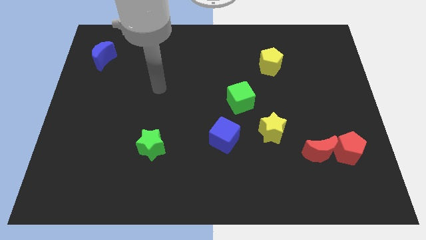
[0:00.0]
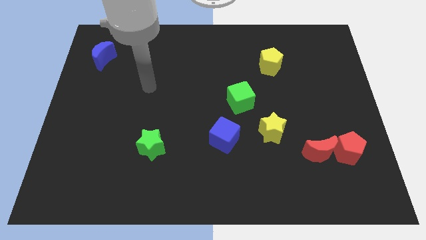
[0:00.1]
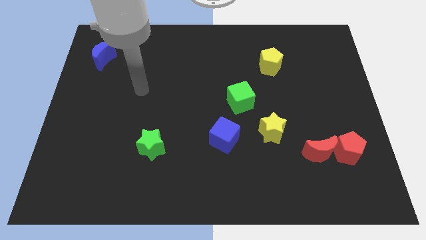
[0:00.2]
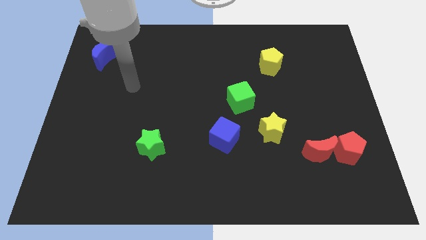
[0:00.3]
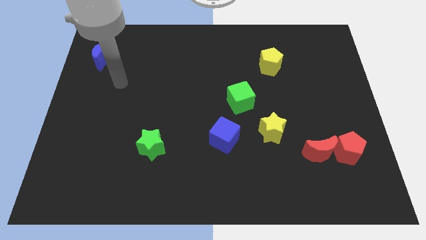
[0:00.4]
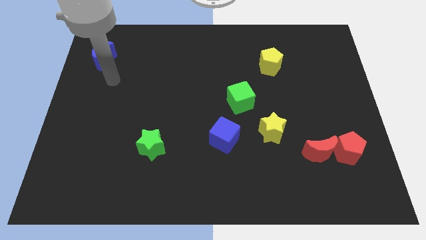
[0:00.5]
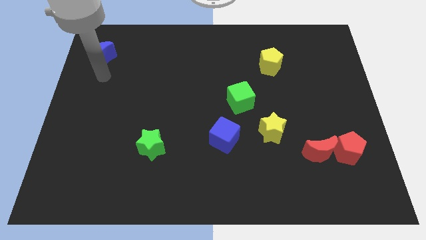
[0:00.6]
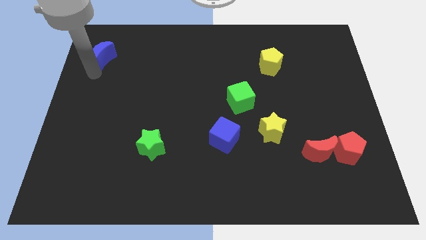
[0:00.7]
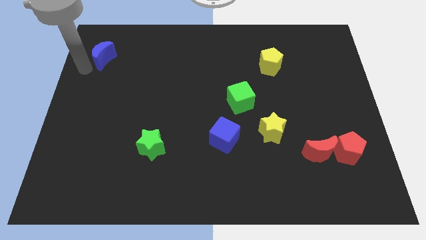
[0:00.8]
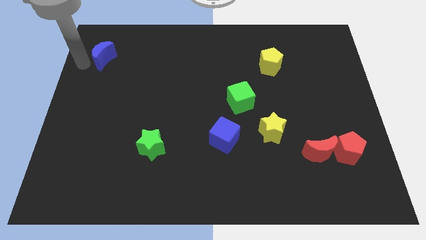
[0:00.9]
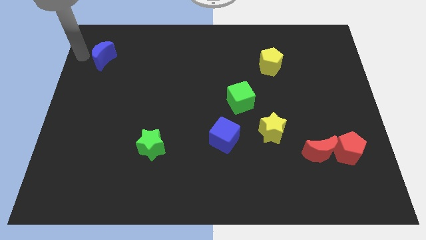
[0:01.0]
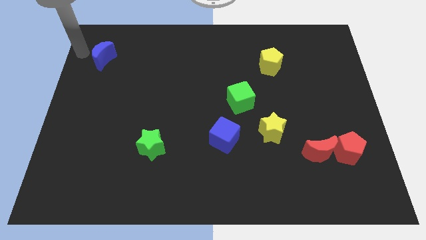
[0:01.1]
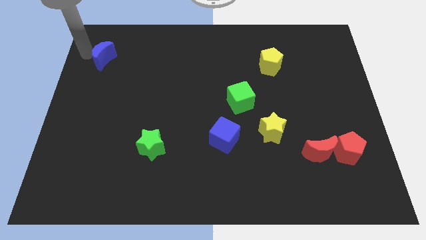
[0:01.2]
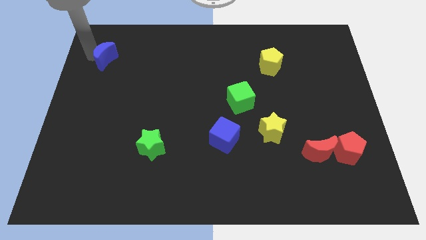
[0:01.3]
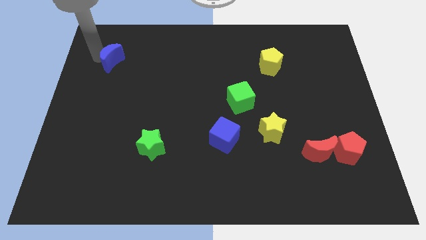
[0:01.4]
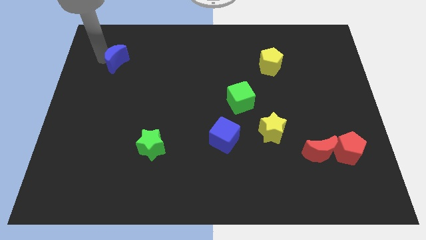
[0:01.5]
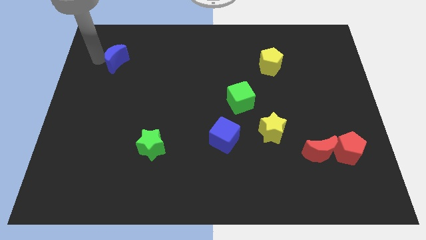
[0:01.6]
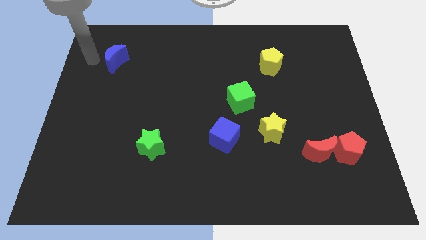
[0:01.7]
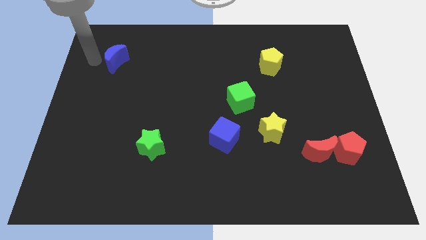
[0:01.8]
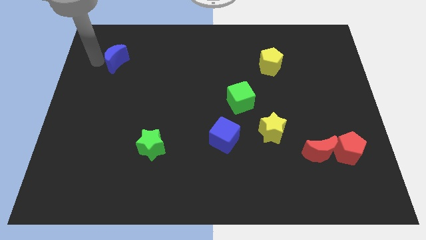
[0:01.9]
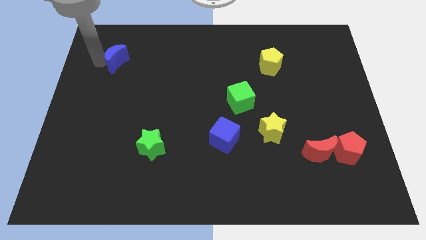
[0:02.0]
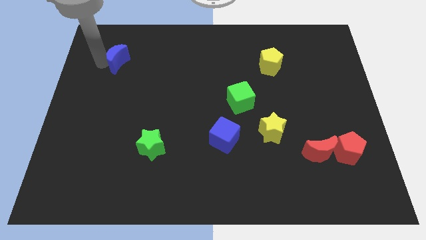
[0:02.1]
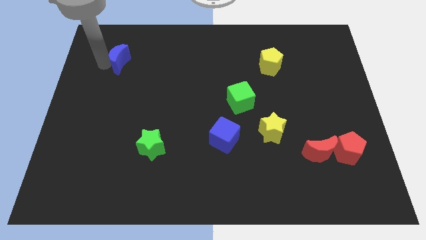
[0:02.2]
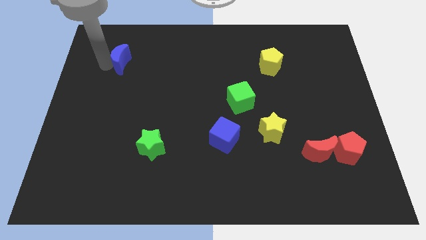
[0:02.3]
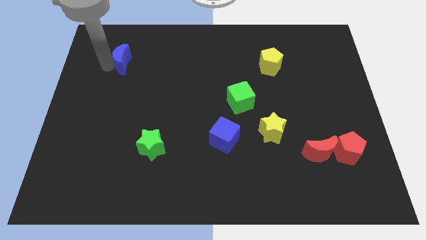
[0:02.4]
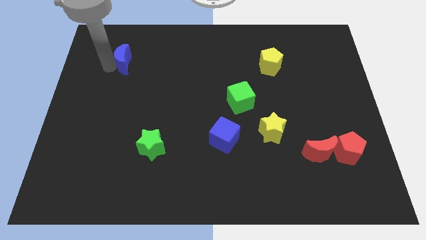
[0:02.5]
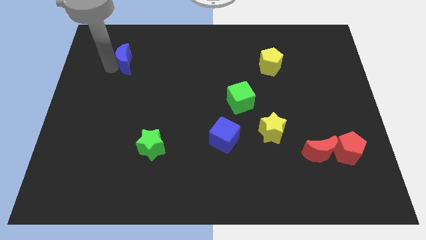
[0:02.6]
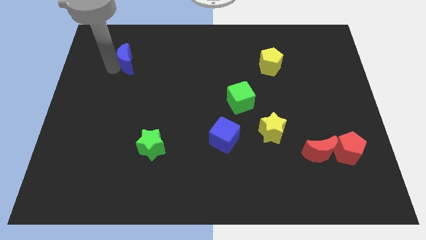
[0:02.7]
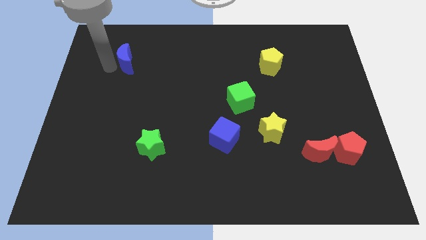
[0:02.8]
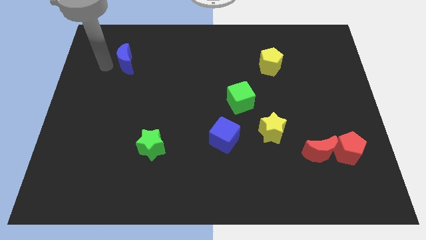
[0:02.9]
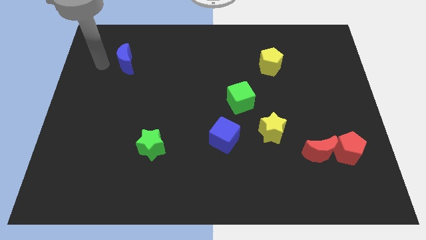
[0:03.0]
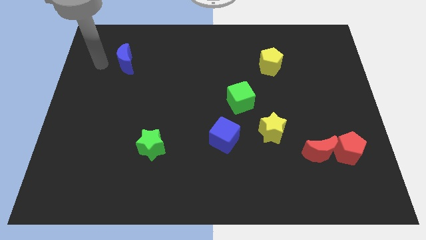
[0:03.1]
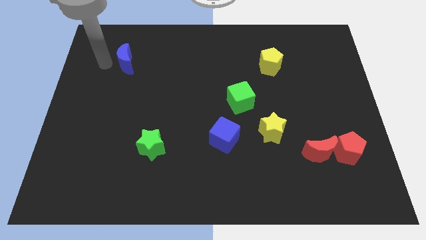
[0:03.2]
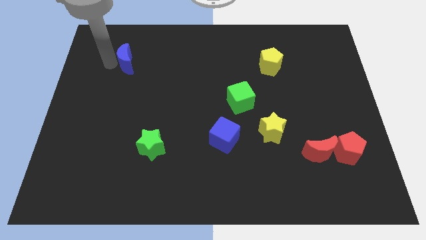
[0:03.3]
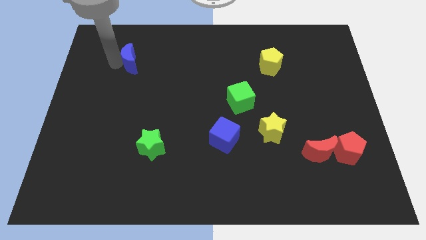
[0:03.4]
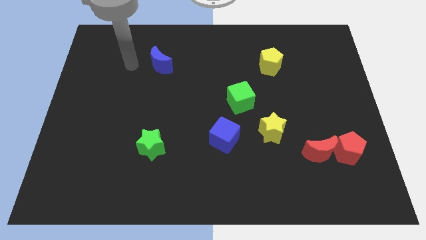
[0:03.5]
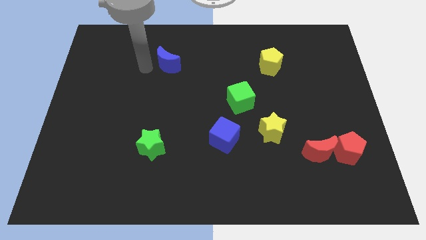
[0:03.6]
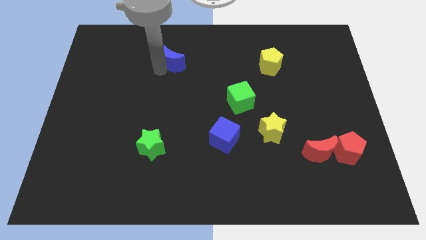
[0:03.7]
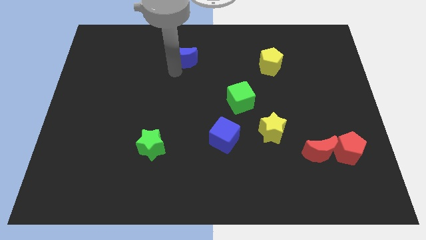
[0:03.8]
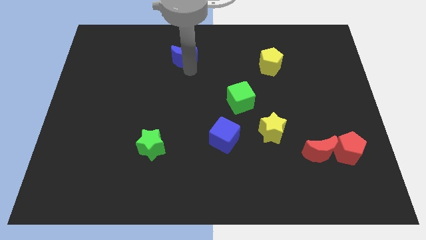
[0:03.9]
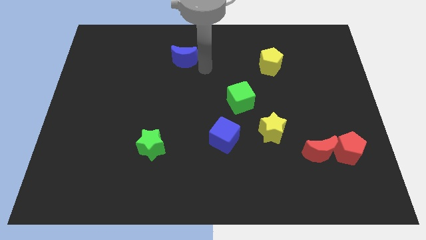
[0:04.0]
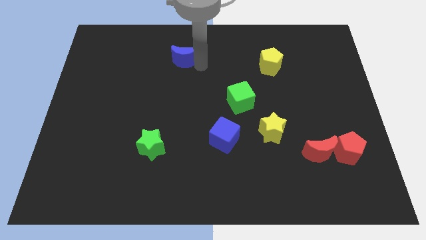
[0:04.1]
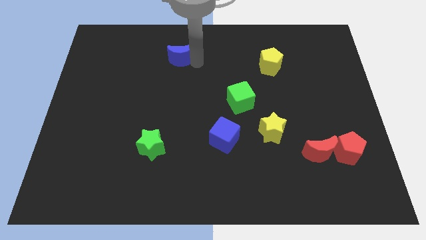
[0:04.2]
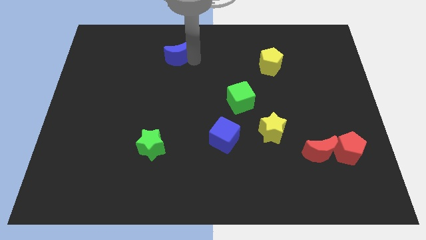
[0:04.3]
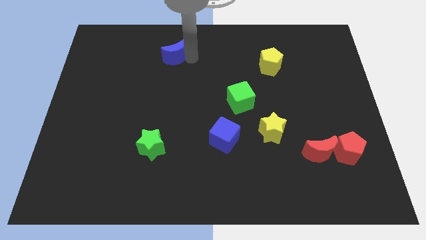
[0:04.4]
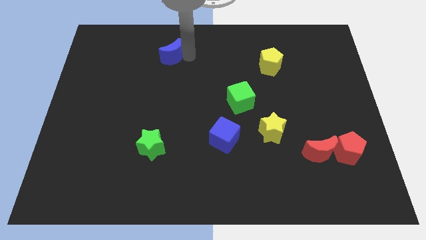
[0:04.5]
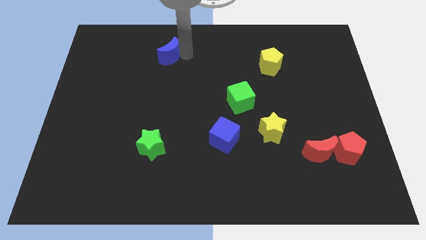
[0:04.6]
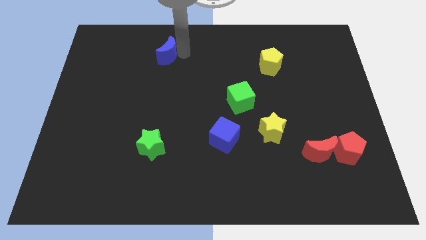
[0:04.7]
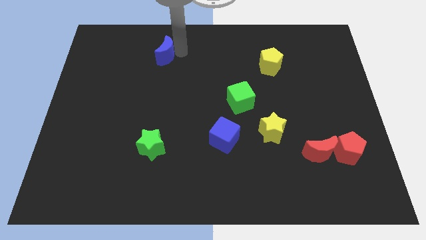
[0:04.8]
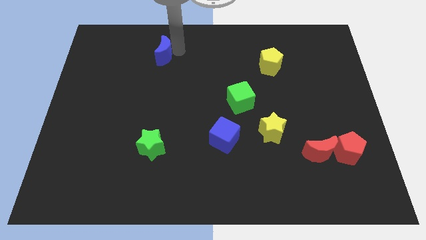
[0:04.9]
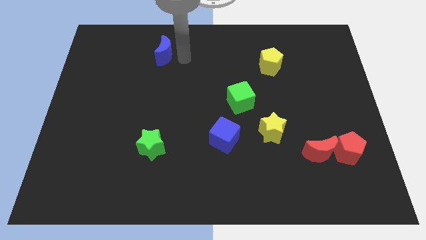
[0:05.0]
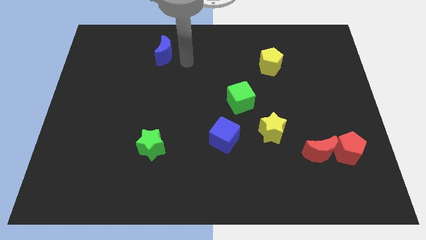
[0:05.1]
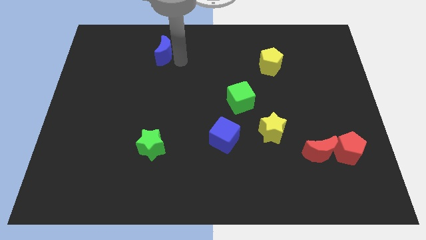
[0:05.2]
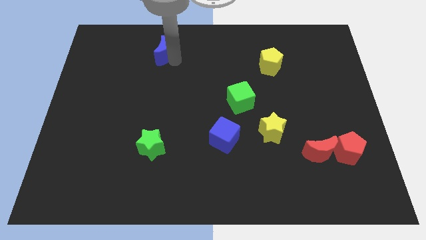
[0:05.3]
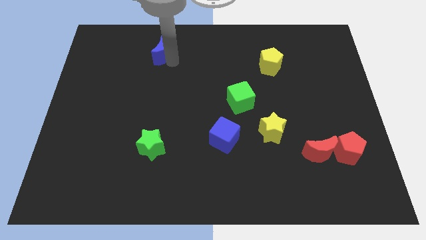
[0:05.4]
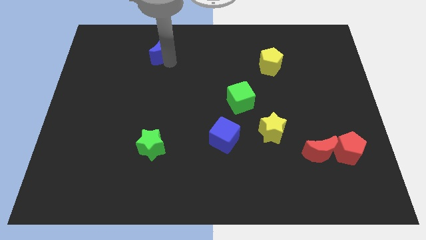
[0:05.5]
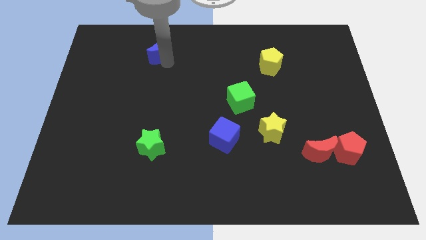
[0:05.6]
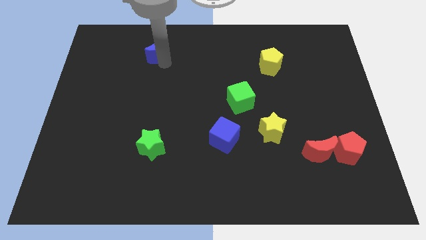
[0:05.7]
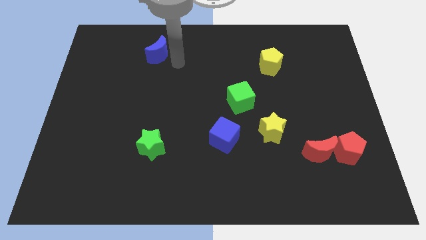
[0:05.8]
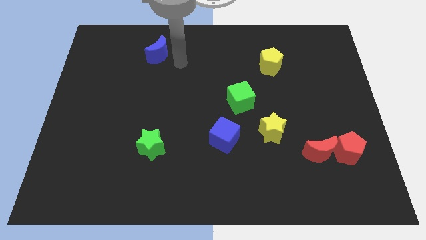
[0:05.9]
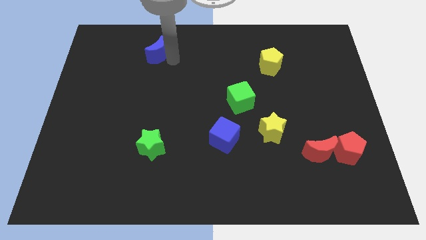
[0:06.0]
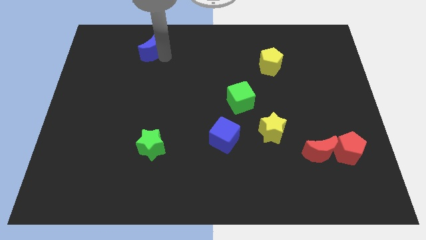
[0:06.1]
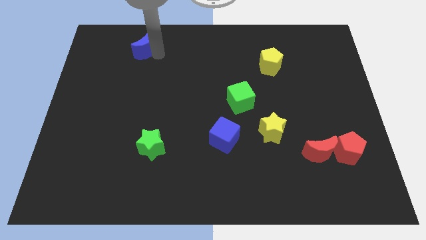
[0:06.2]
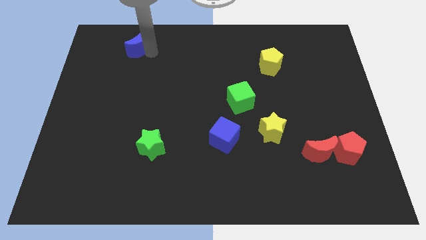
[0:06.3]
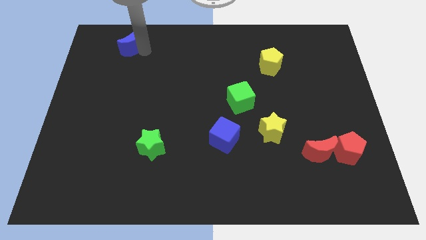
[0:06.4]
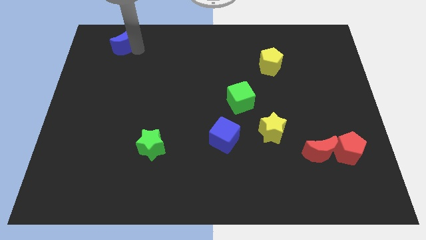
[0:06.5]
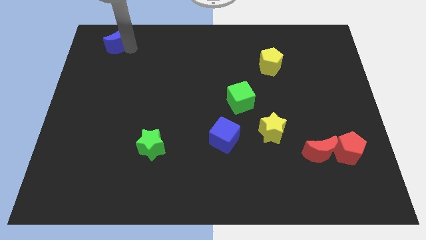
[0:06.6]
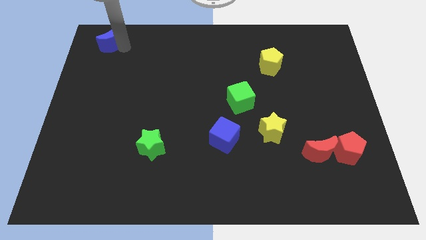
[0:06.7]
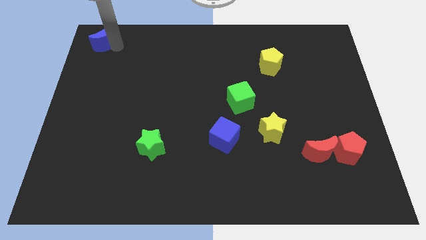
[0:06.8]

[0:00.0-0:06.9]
move the blue moon to the top left
